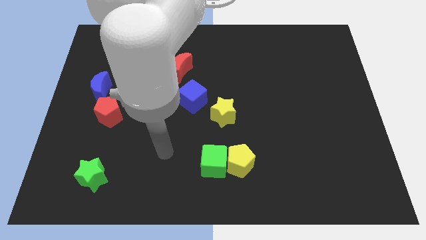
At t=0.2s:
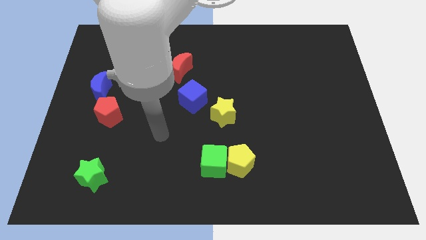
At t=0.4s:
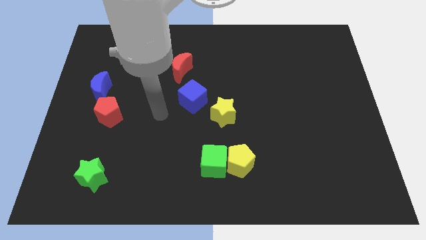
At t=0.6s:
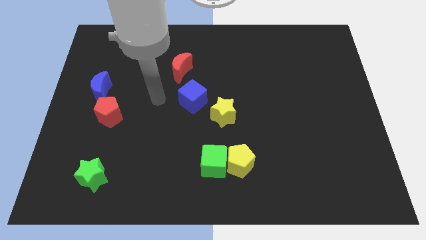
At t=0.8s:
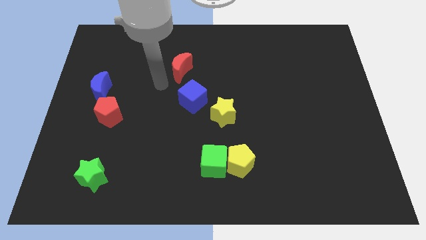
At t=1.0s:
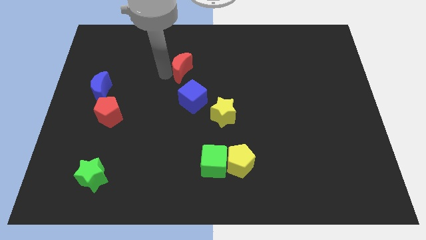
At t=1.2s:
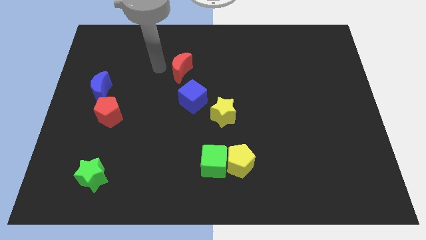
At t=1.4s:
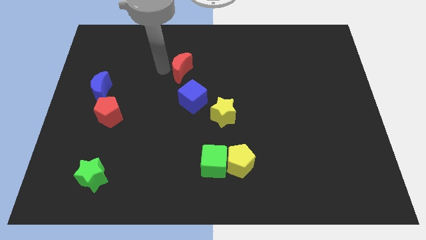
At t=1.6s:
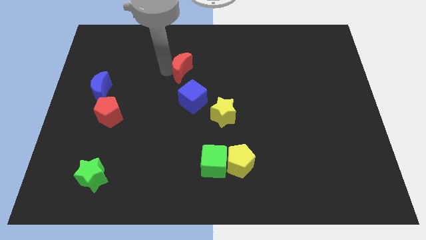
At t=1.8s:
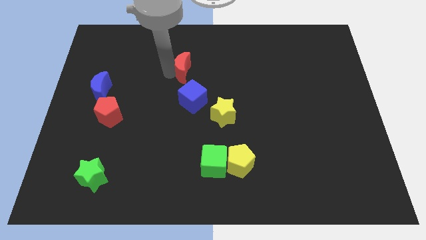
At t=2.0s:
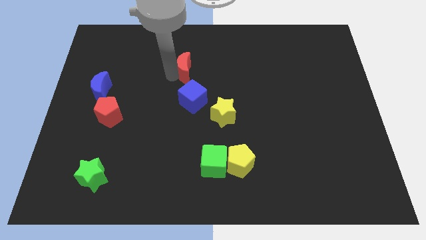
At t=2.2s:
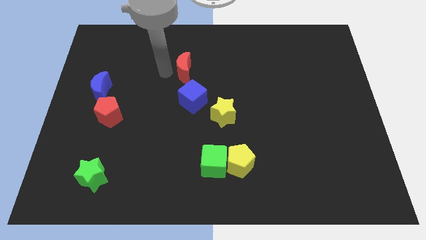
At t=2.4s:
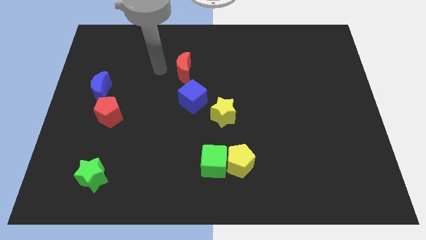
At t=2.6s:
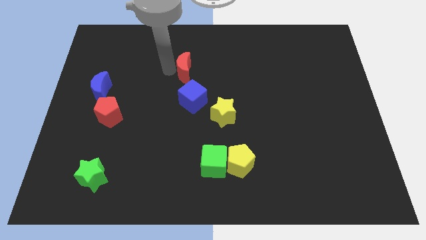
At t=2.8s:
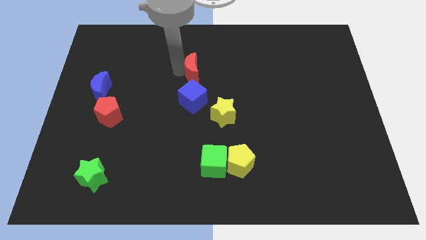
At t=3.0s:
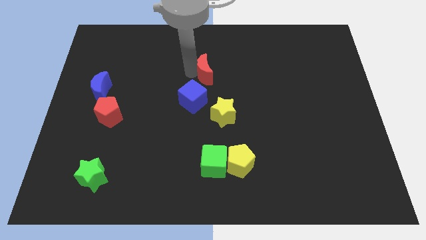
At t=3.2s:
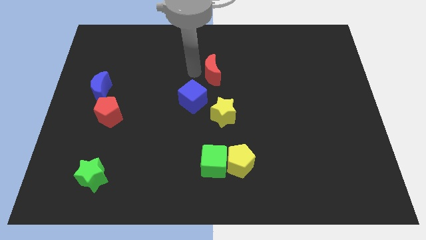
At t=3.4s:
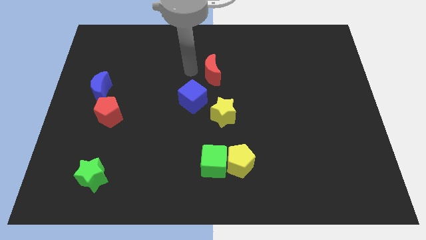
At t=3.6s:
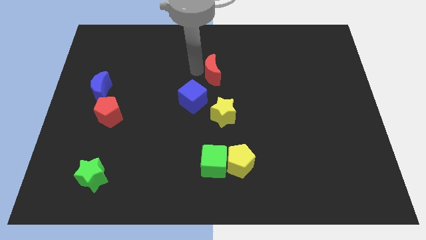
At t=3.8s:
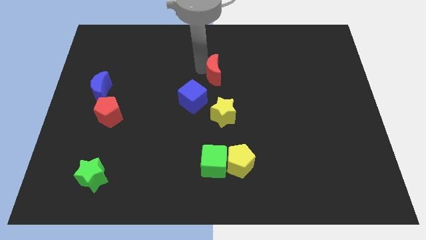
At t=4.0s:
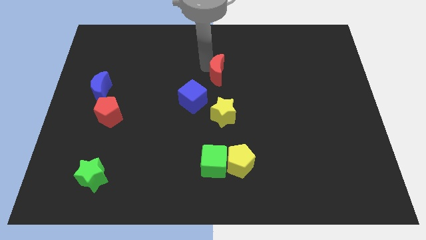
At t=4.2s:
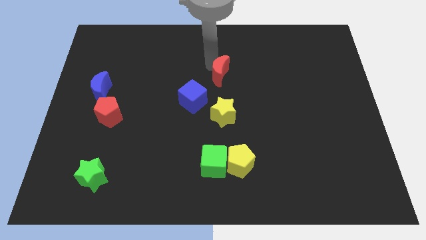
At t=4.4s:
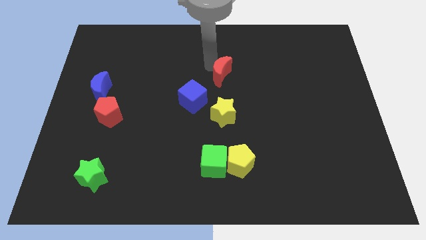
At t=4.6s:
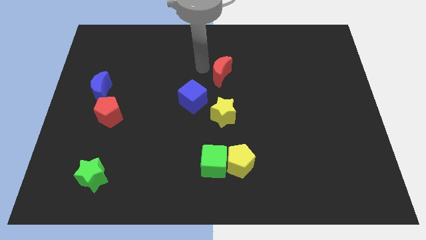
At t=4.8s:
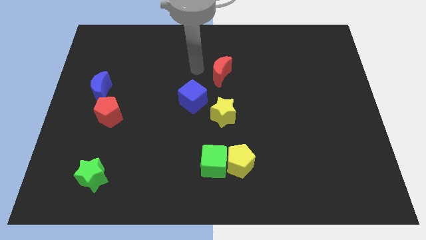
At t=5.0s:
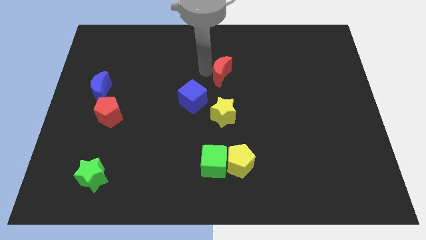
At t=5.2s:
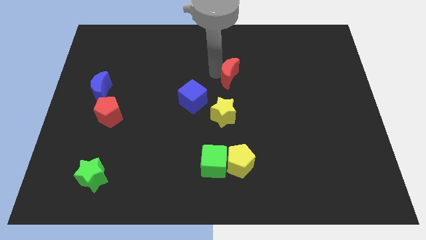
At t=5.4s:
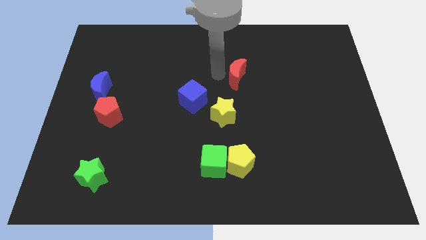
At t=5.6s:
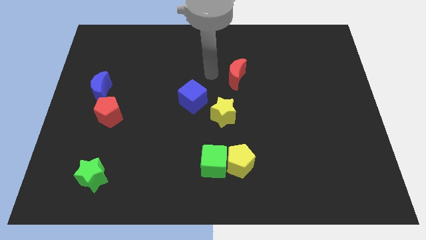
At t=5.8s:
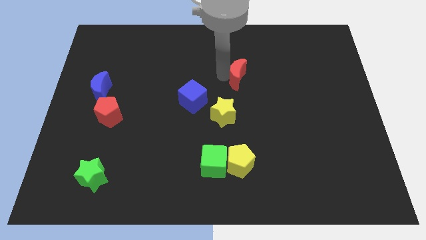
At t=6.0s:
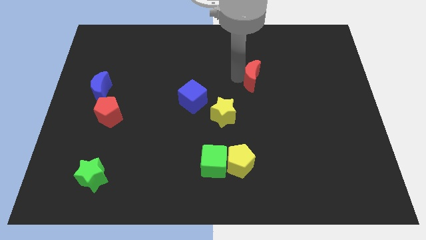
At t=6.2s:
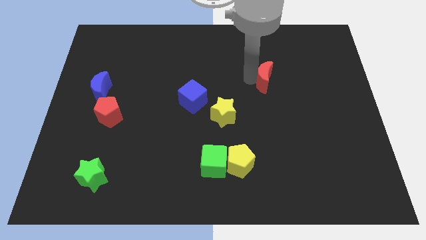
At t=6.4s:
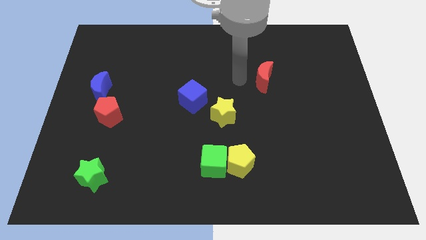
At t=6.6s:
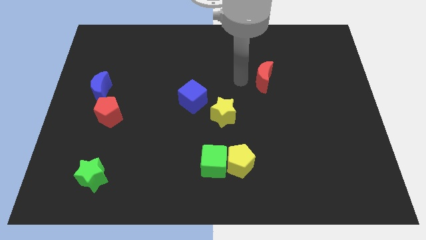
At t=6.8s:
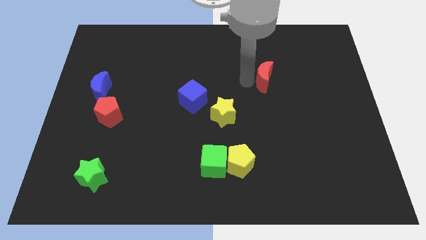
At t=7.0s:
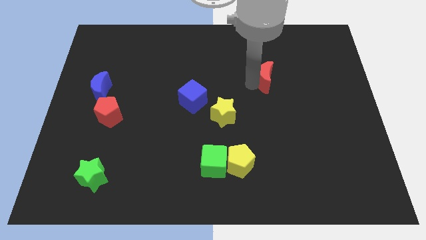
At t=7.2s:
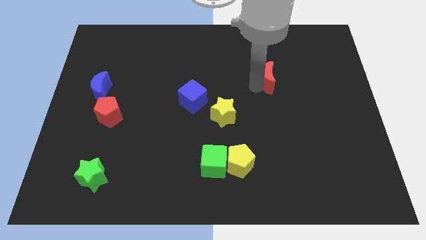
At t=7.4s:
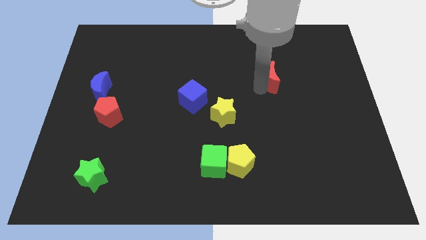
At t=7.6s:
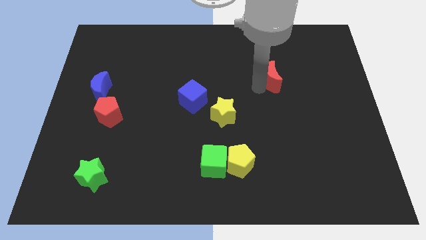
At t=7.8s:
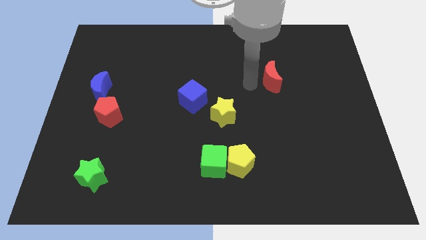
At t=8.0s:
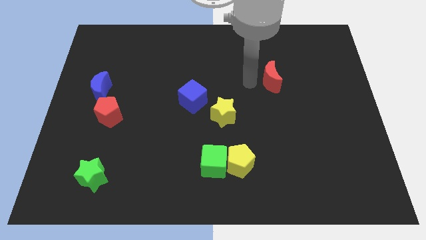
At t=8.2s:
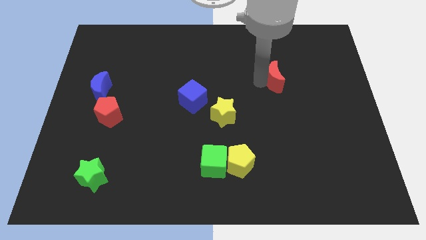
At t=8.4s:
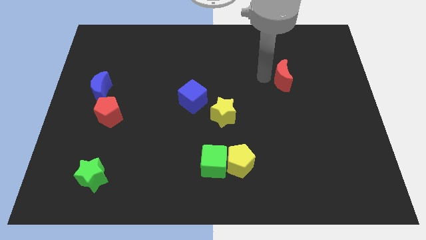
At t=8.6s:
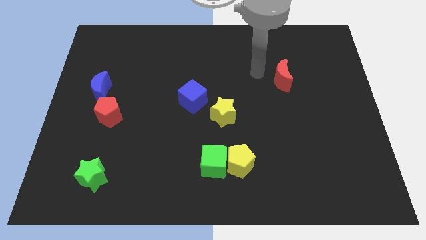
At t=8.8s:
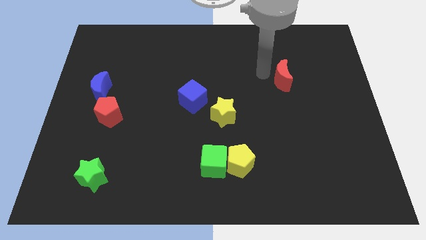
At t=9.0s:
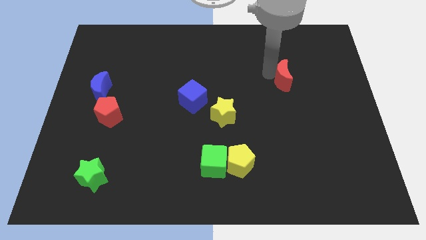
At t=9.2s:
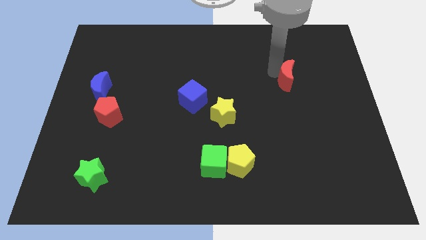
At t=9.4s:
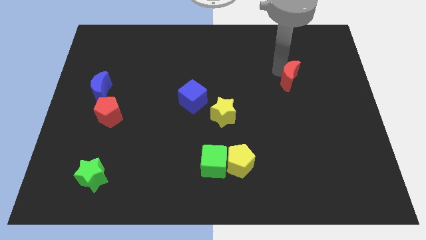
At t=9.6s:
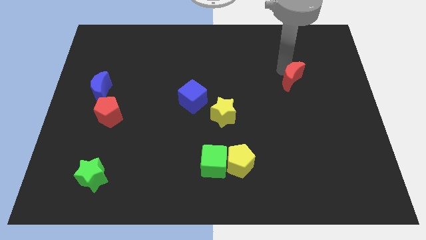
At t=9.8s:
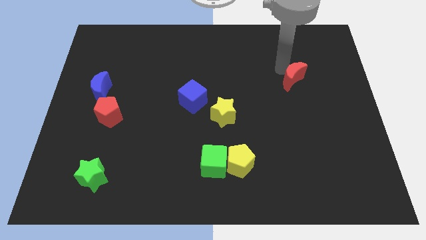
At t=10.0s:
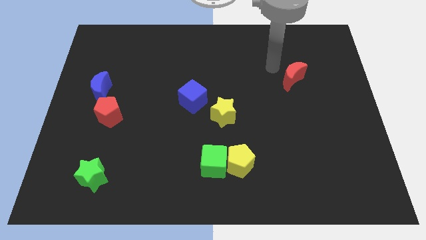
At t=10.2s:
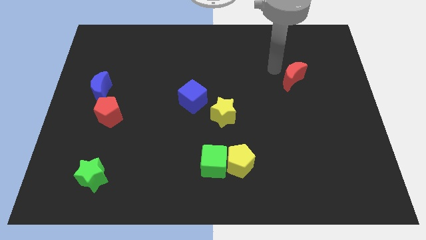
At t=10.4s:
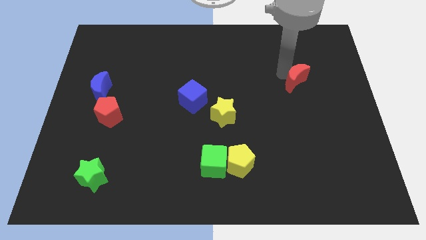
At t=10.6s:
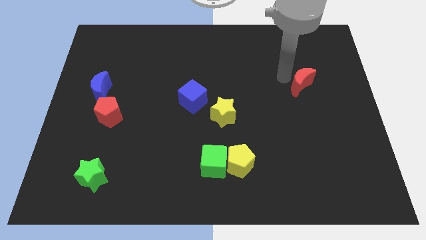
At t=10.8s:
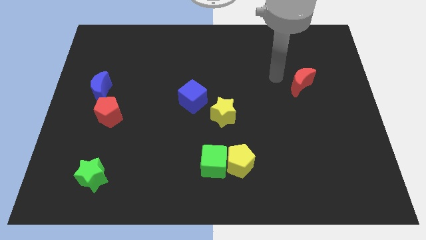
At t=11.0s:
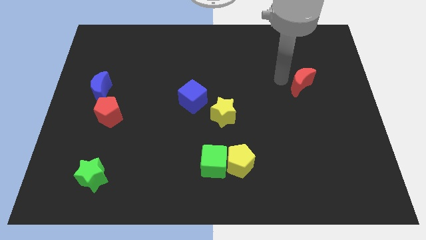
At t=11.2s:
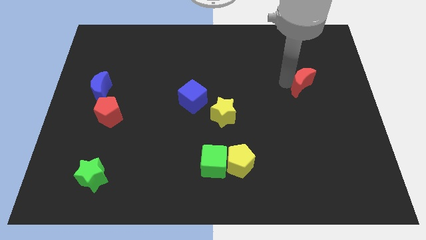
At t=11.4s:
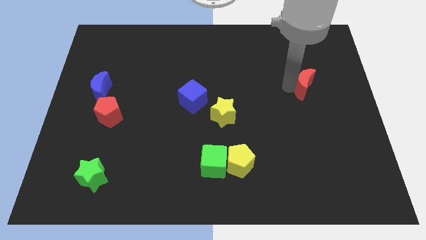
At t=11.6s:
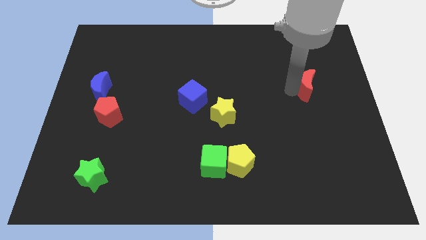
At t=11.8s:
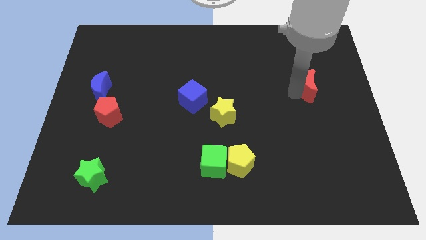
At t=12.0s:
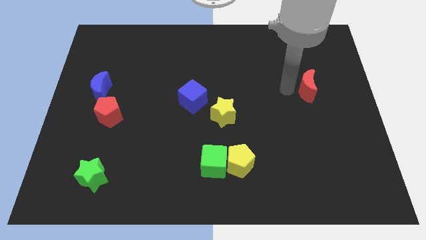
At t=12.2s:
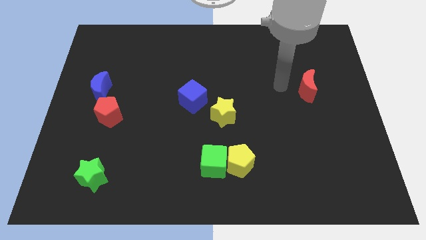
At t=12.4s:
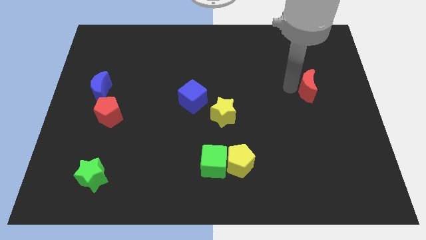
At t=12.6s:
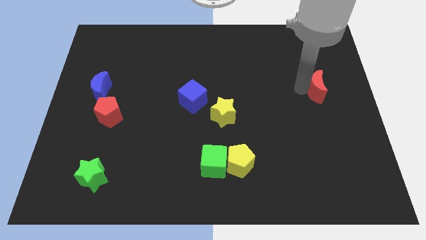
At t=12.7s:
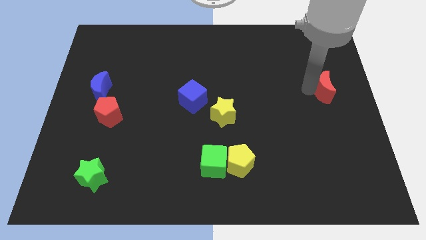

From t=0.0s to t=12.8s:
put the red moon to the right side of the board

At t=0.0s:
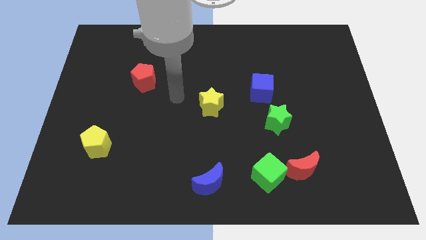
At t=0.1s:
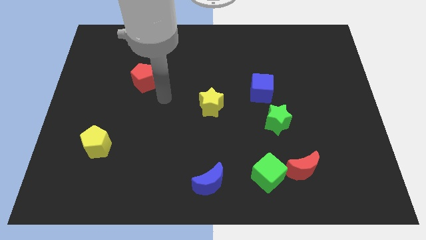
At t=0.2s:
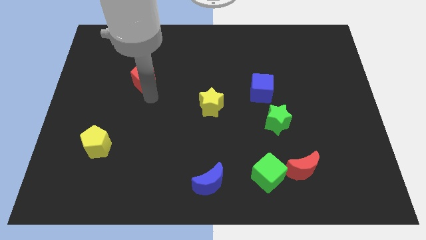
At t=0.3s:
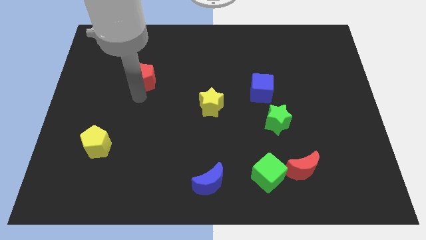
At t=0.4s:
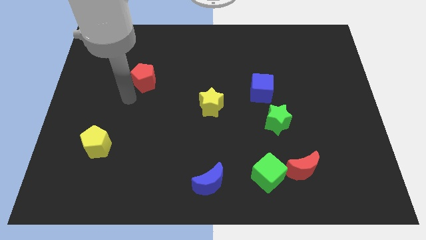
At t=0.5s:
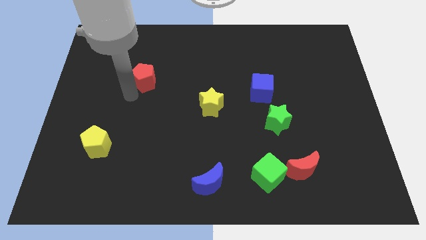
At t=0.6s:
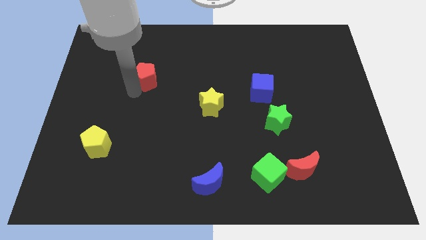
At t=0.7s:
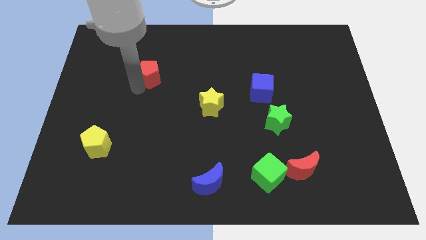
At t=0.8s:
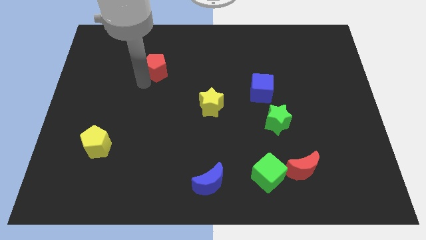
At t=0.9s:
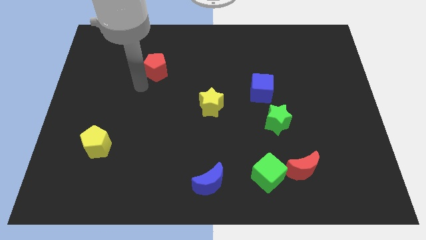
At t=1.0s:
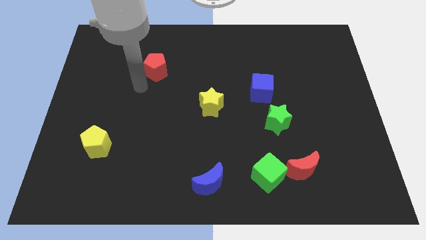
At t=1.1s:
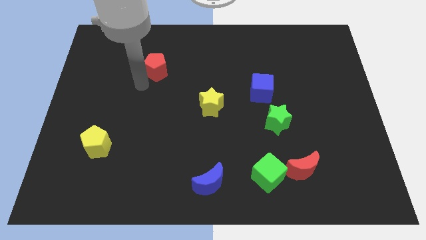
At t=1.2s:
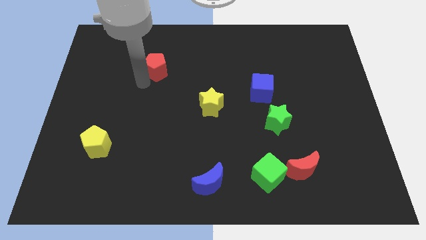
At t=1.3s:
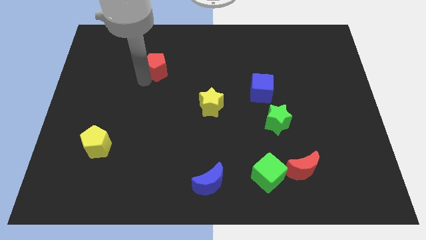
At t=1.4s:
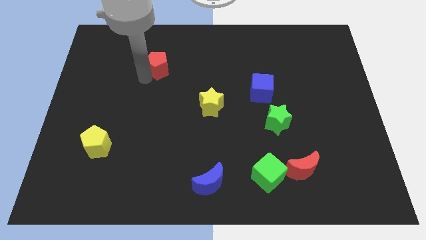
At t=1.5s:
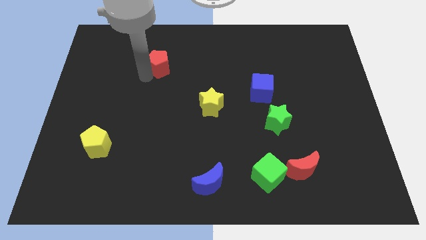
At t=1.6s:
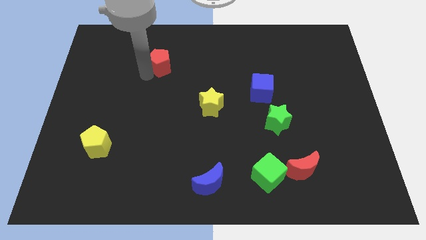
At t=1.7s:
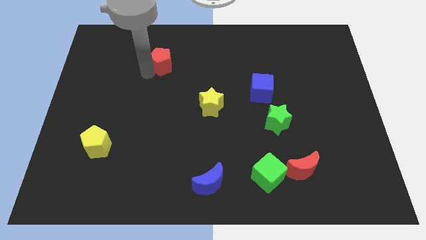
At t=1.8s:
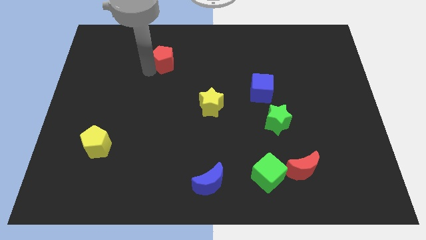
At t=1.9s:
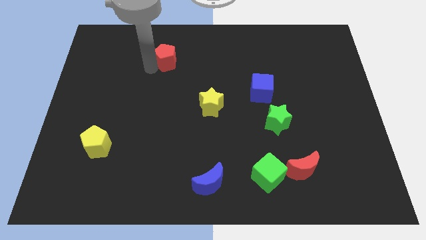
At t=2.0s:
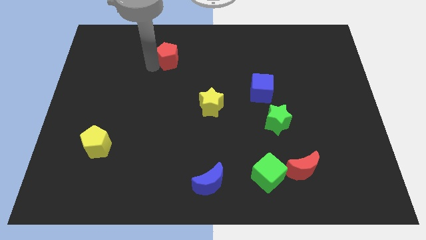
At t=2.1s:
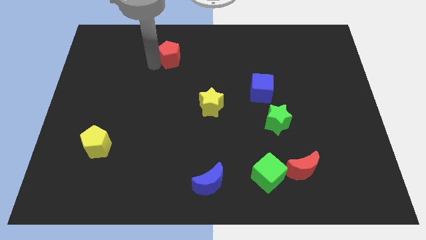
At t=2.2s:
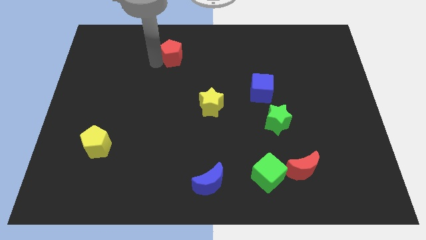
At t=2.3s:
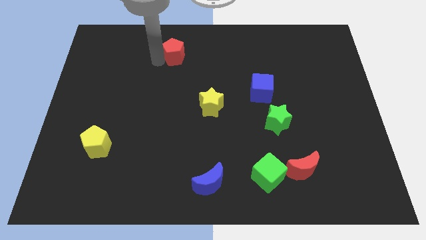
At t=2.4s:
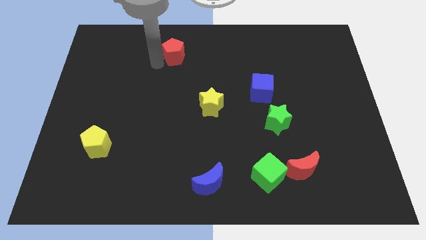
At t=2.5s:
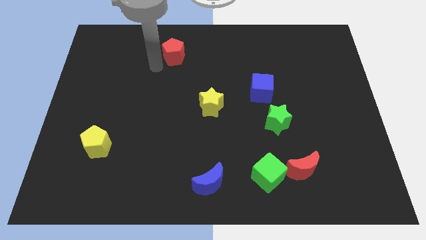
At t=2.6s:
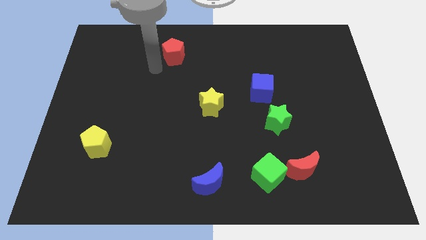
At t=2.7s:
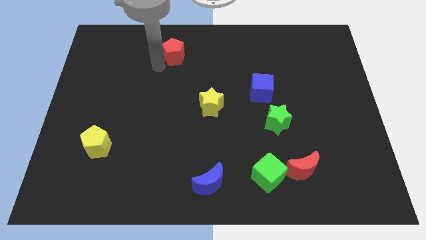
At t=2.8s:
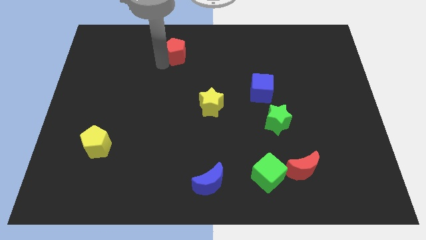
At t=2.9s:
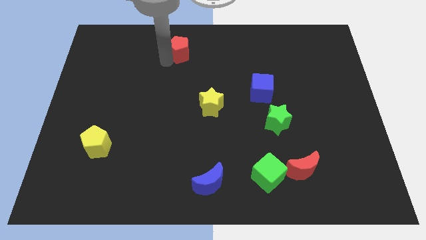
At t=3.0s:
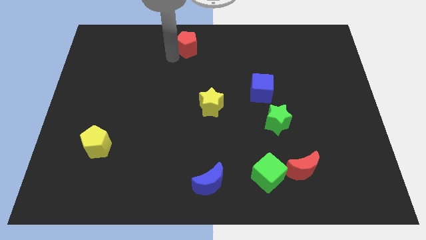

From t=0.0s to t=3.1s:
move the red pentagon to the top
